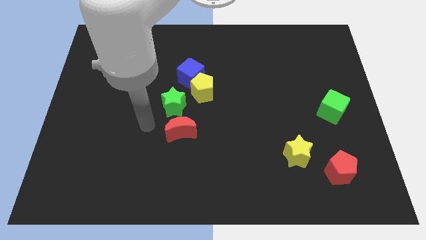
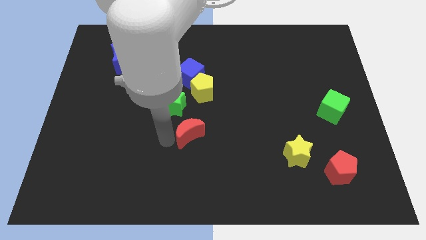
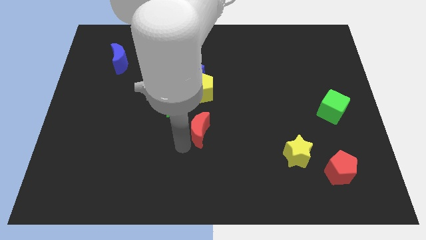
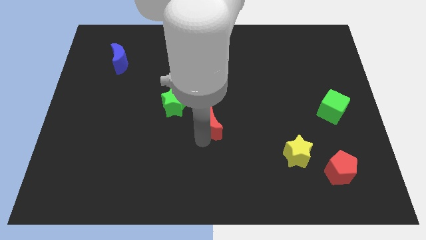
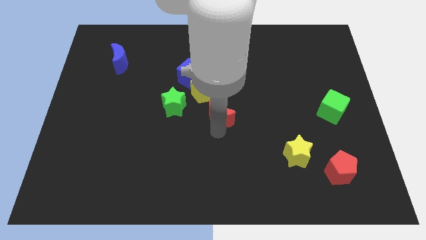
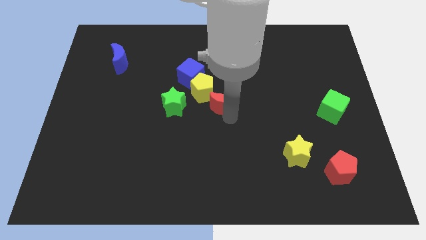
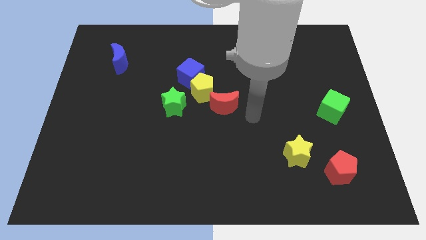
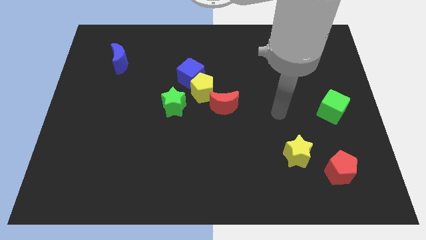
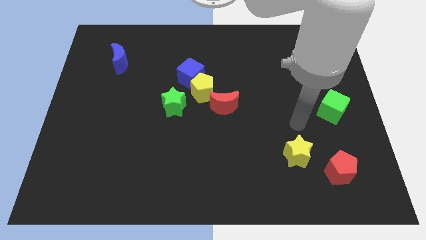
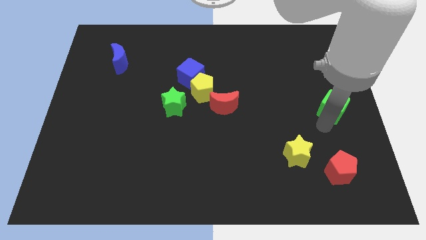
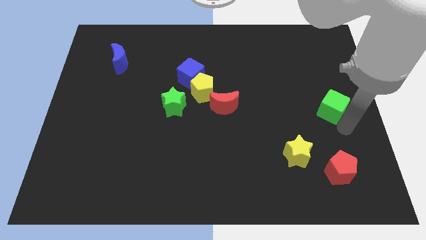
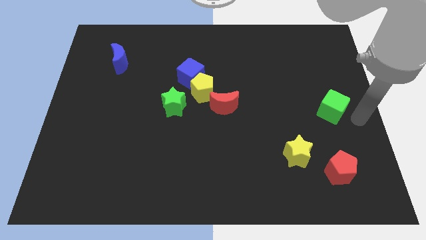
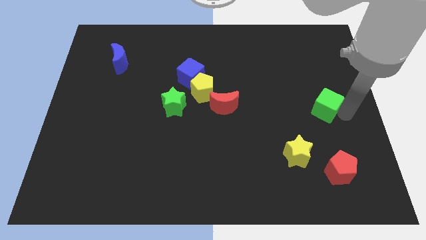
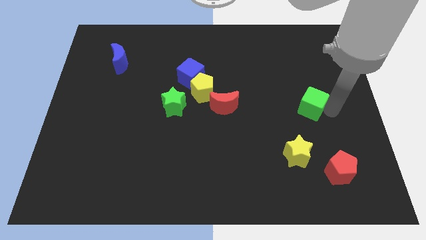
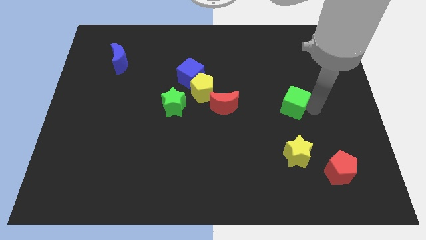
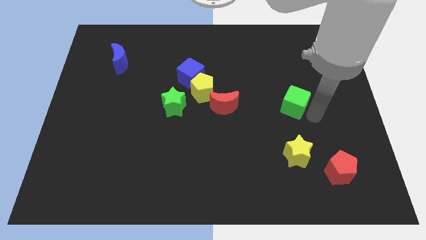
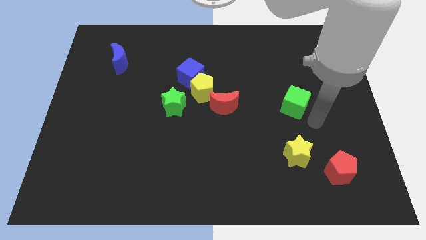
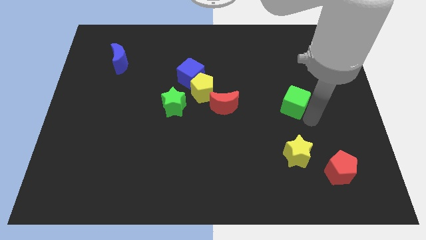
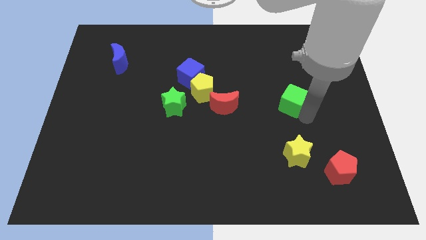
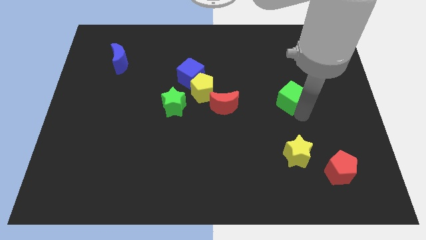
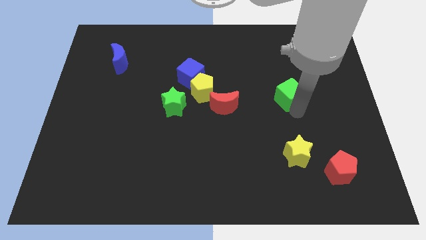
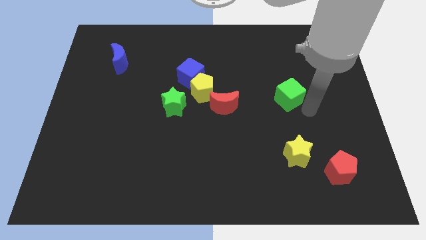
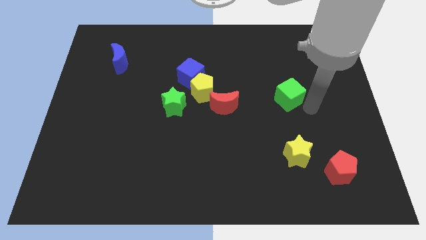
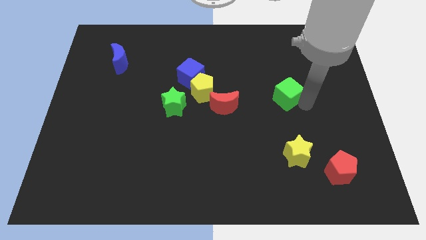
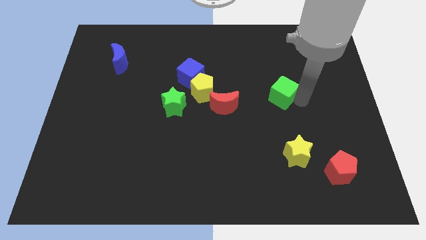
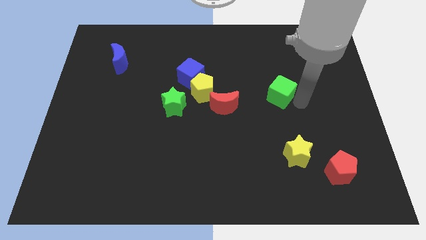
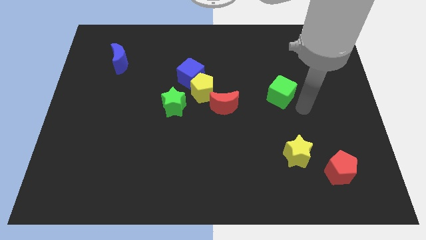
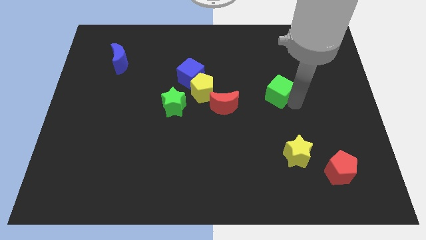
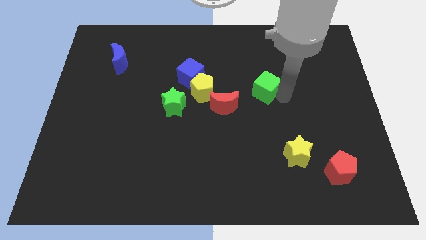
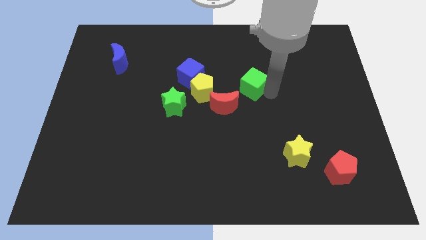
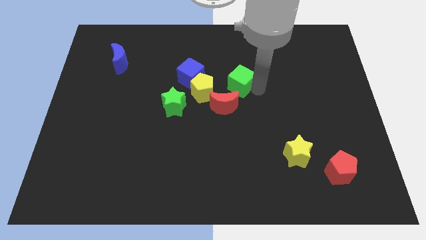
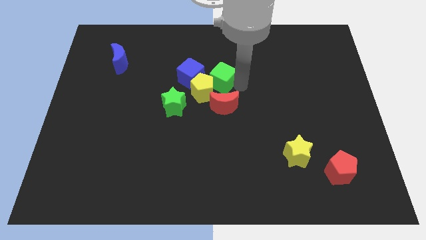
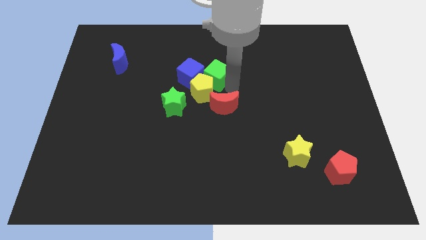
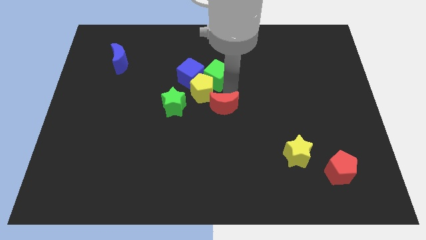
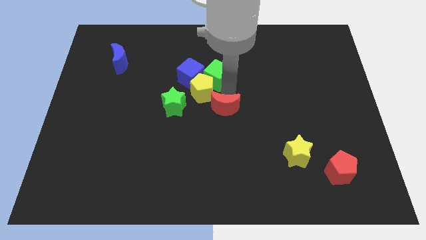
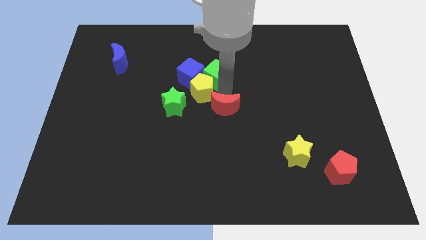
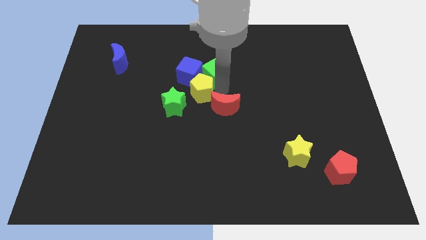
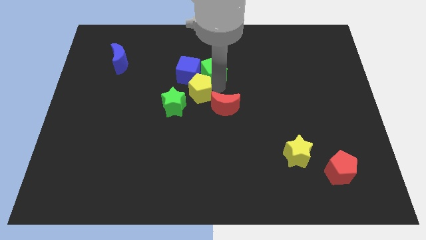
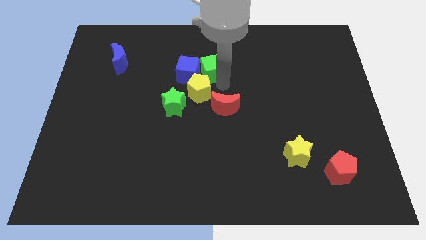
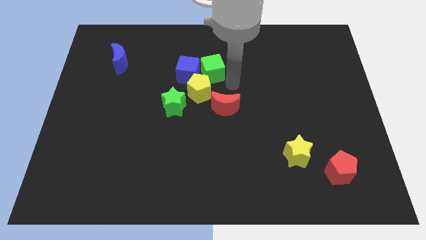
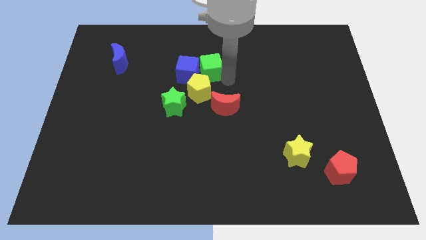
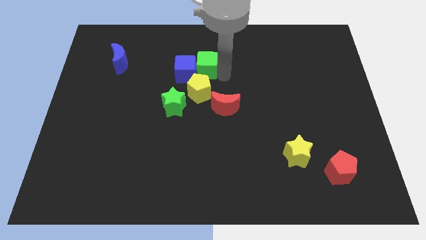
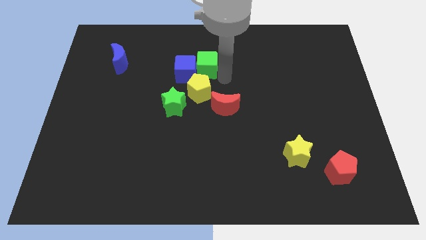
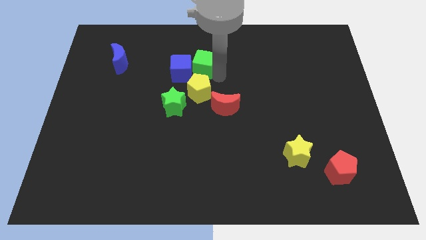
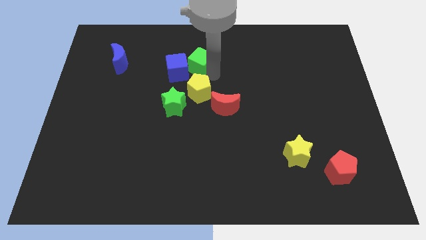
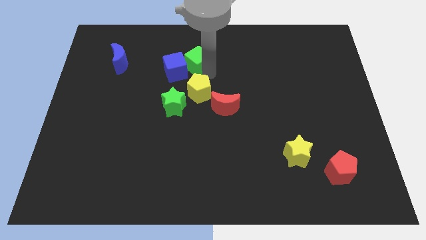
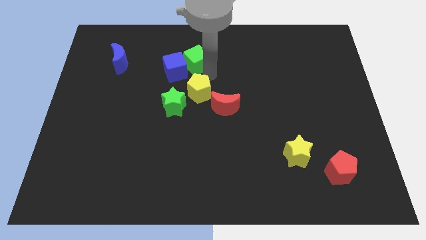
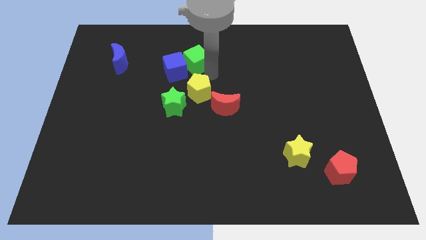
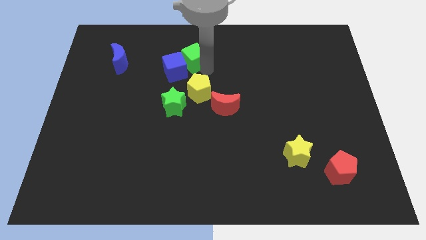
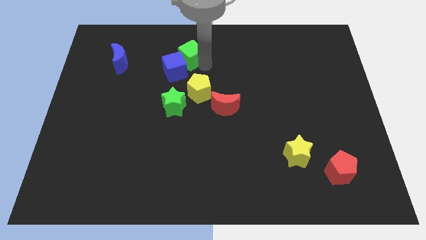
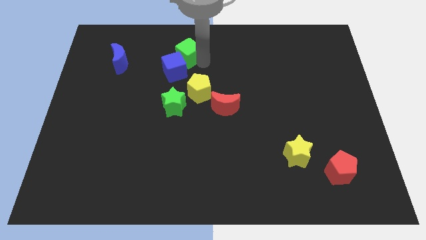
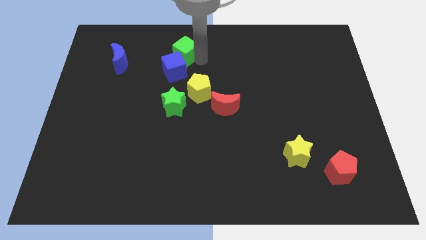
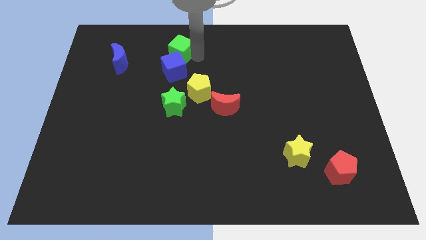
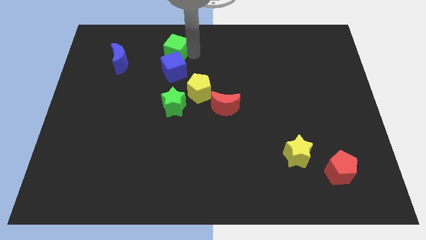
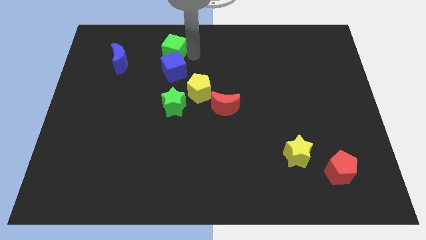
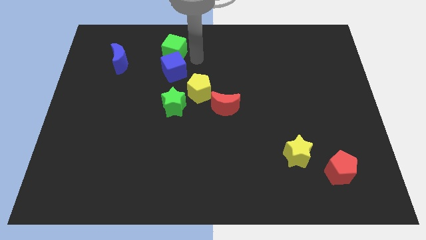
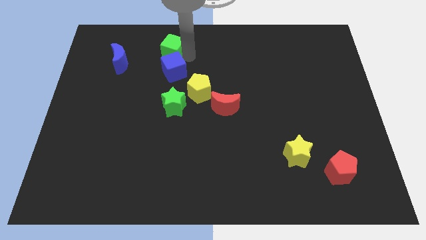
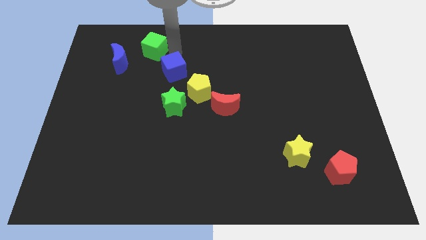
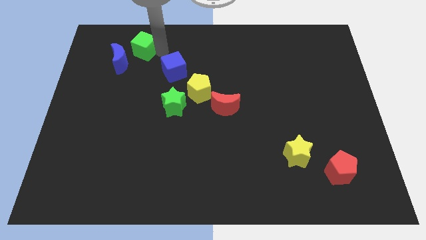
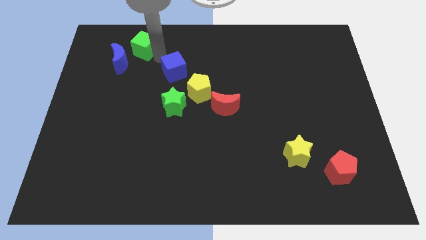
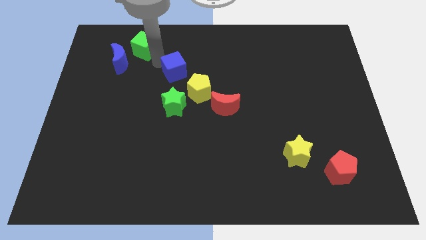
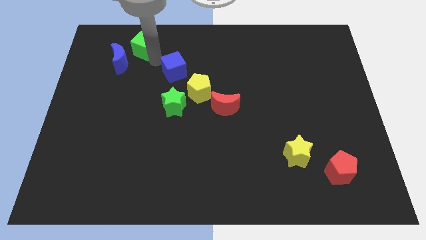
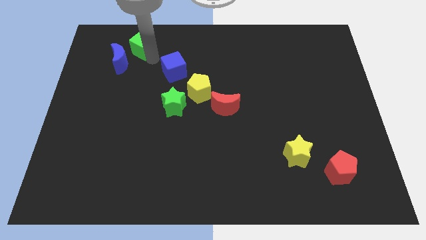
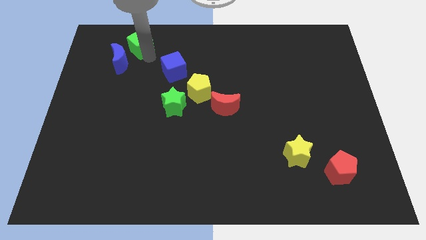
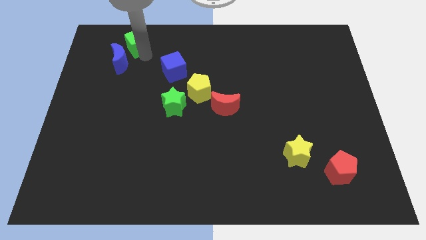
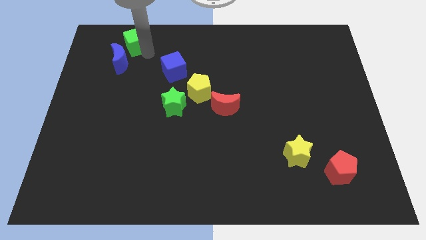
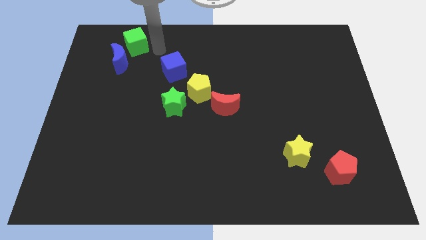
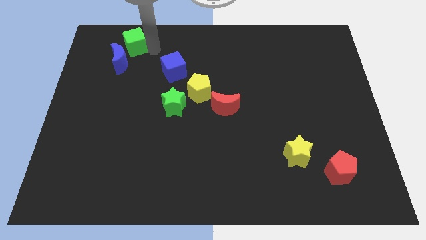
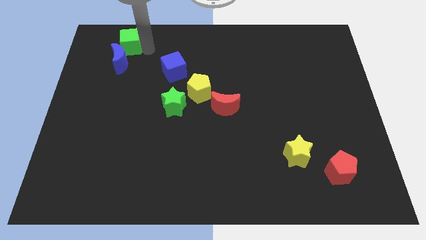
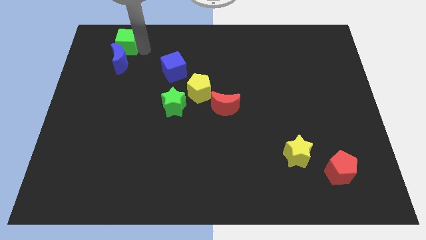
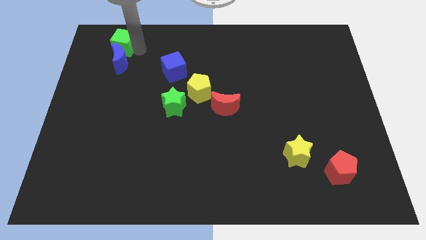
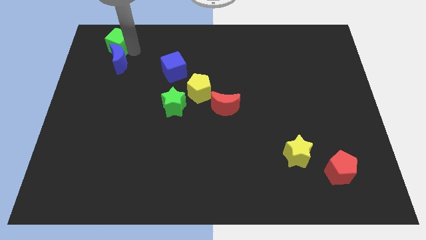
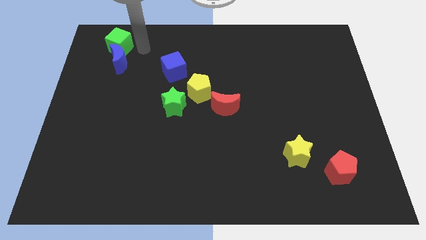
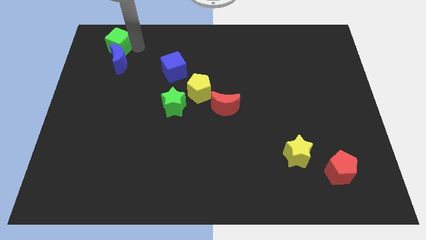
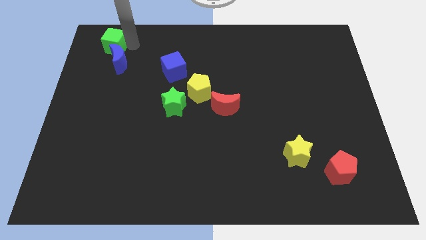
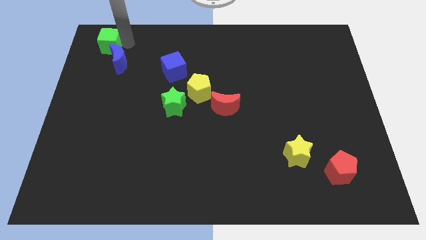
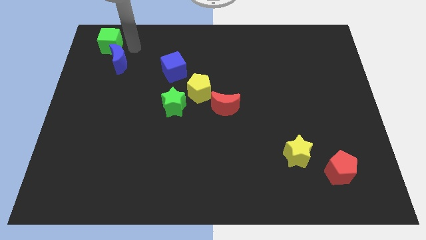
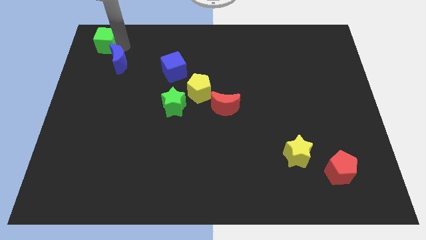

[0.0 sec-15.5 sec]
push the green cube to the top left corner
